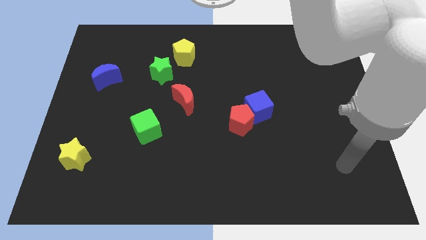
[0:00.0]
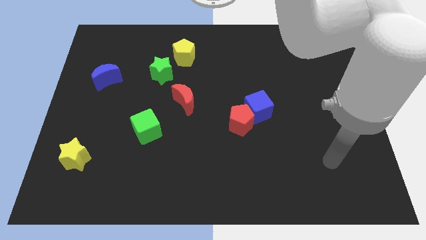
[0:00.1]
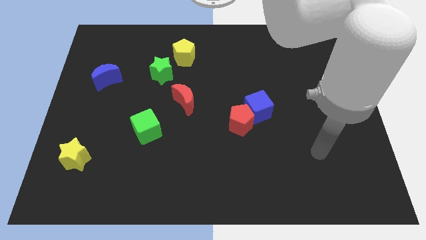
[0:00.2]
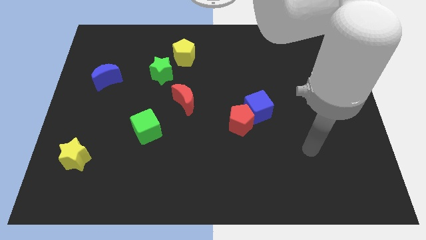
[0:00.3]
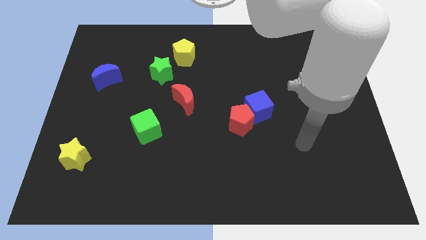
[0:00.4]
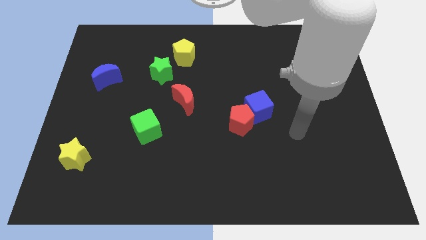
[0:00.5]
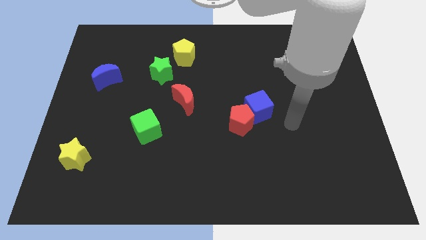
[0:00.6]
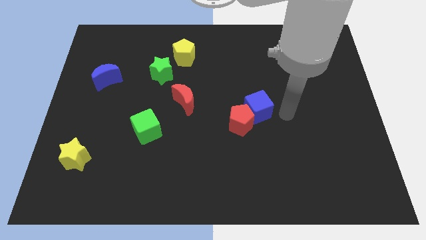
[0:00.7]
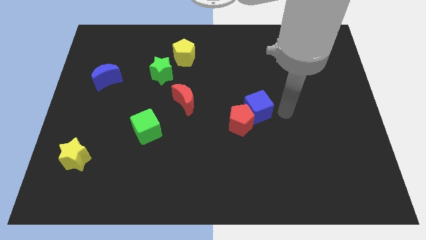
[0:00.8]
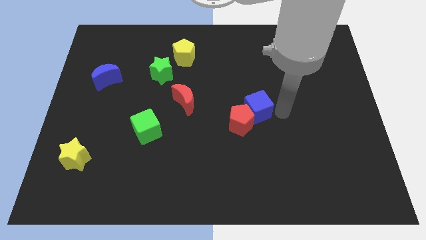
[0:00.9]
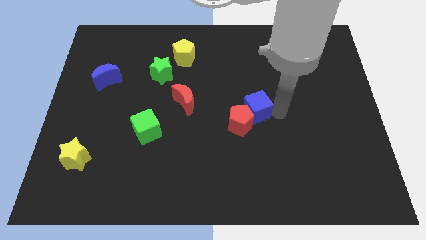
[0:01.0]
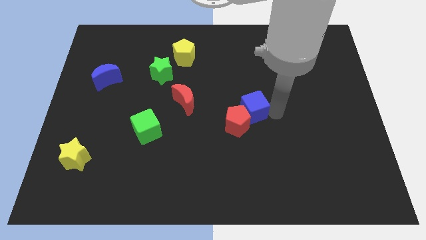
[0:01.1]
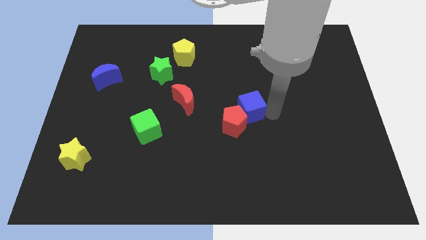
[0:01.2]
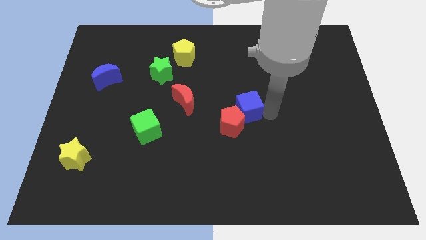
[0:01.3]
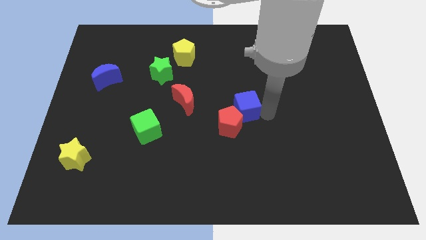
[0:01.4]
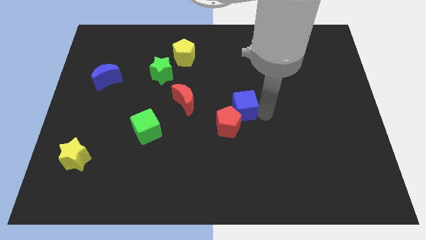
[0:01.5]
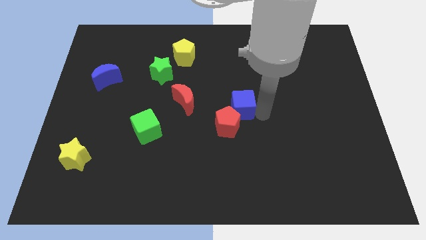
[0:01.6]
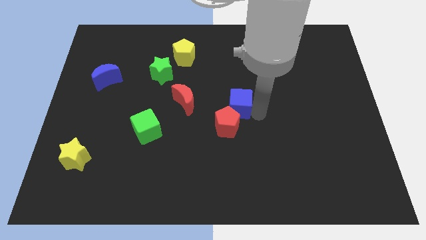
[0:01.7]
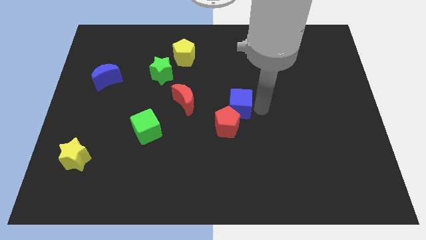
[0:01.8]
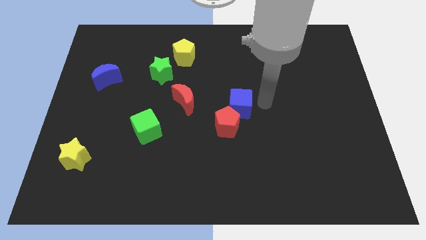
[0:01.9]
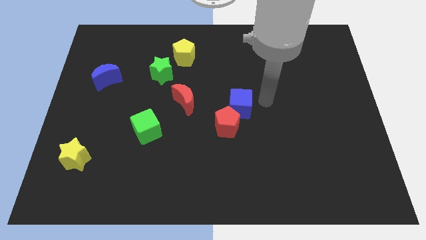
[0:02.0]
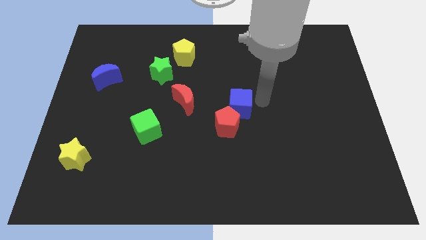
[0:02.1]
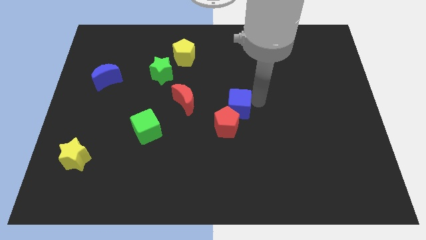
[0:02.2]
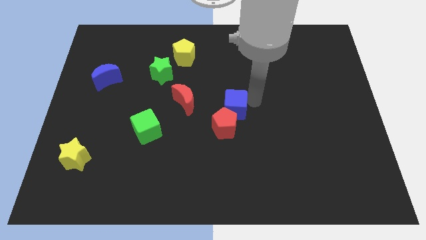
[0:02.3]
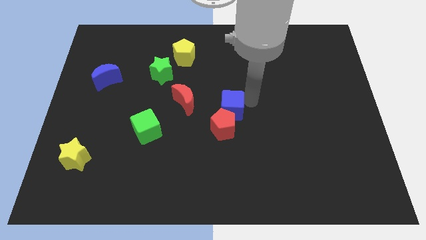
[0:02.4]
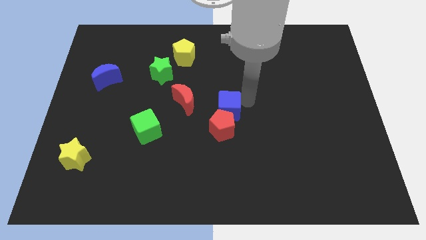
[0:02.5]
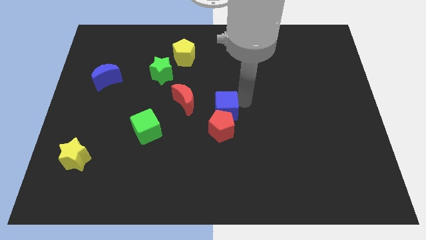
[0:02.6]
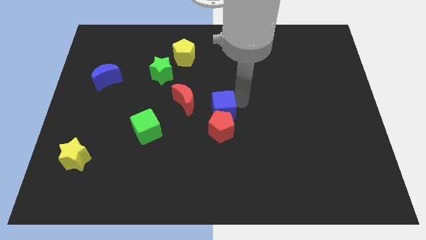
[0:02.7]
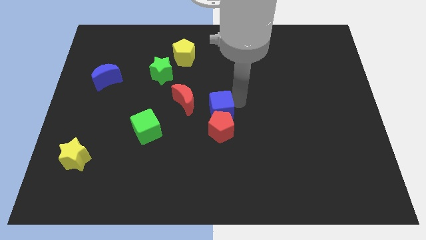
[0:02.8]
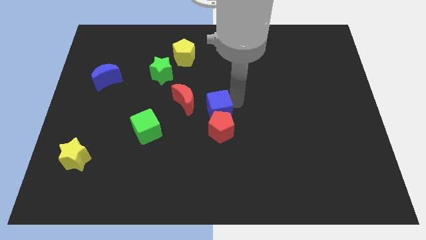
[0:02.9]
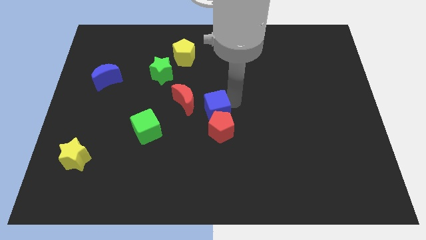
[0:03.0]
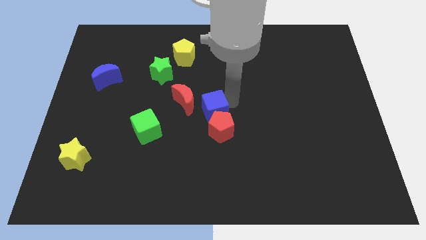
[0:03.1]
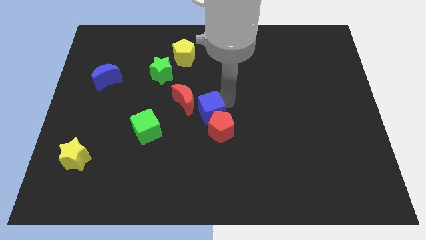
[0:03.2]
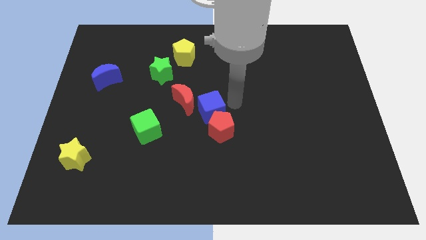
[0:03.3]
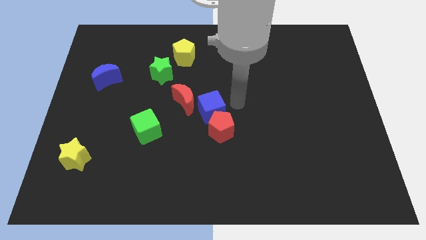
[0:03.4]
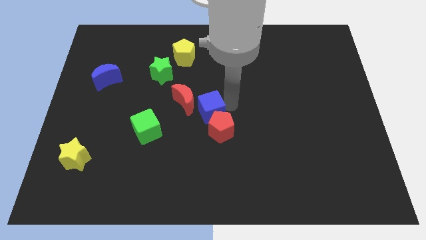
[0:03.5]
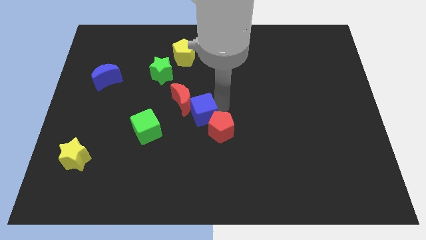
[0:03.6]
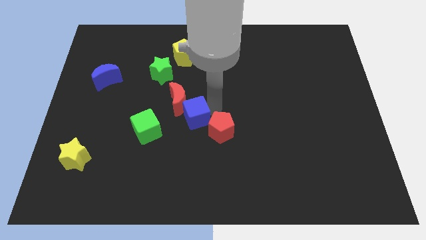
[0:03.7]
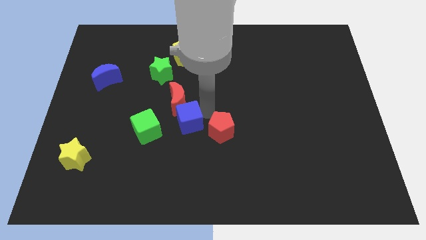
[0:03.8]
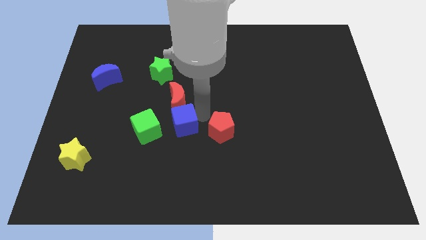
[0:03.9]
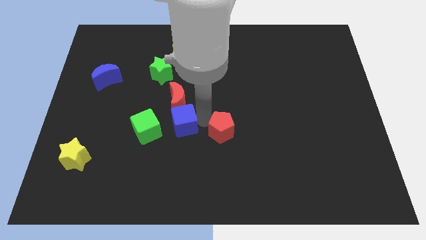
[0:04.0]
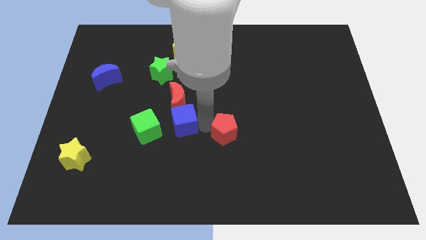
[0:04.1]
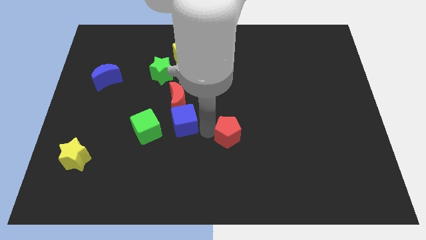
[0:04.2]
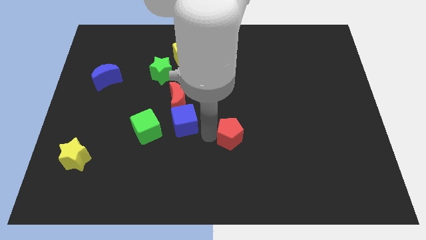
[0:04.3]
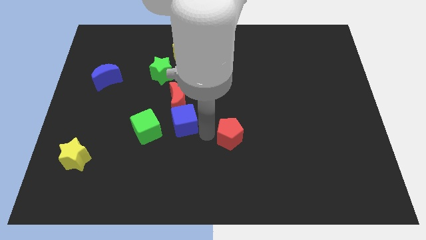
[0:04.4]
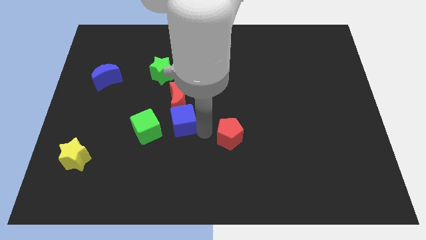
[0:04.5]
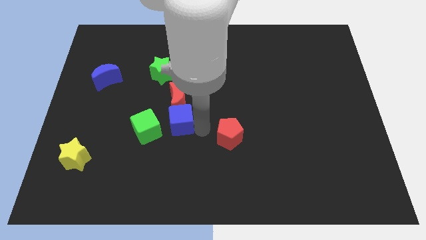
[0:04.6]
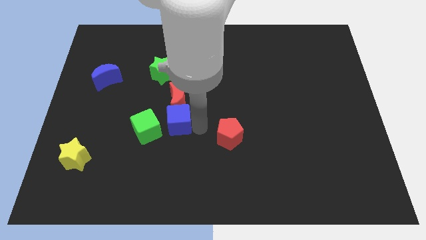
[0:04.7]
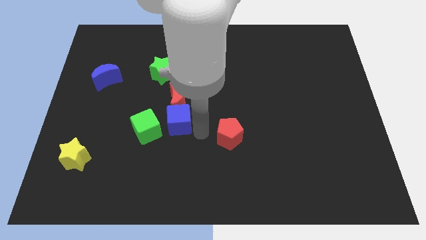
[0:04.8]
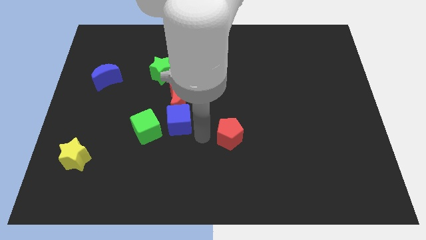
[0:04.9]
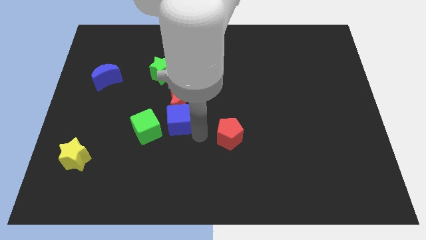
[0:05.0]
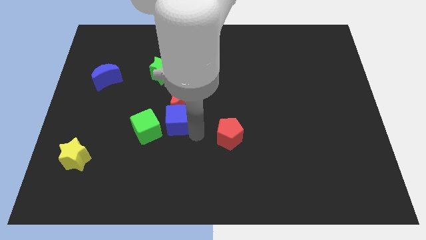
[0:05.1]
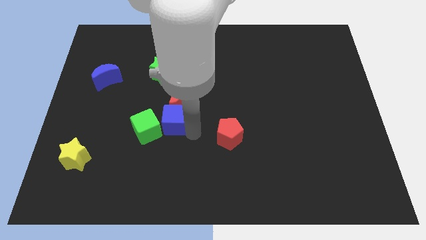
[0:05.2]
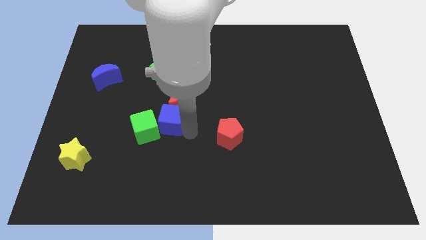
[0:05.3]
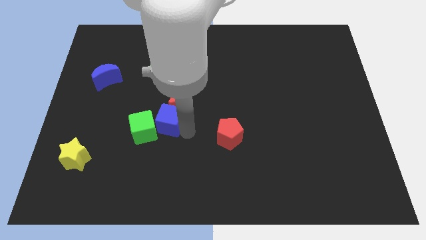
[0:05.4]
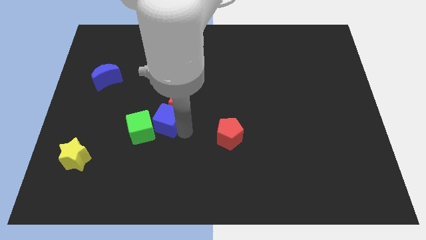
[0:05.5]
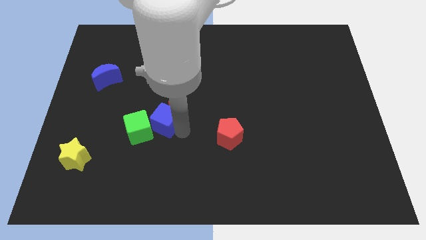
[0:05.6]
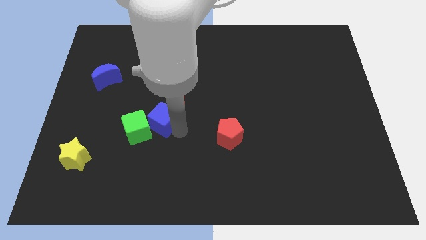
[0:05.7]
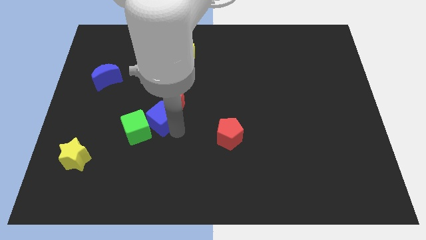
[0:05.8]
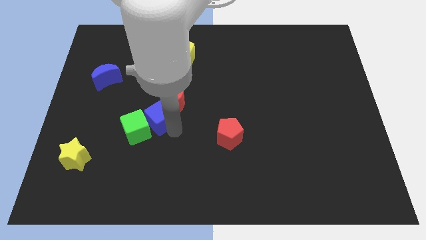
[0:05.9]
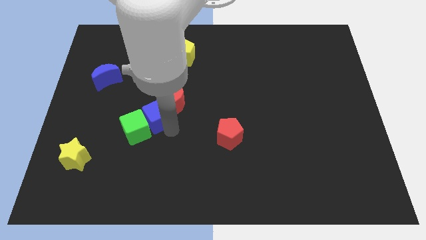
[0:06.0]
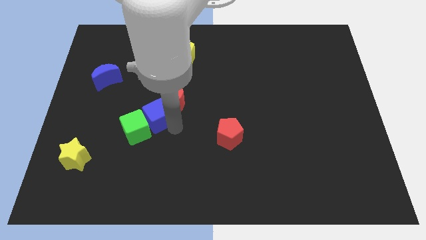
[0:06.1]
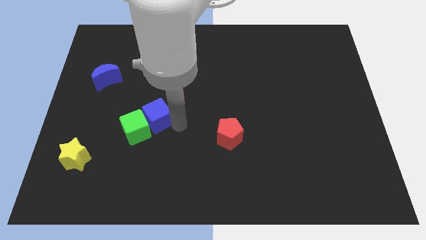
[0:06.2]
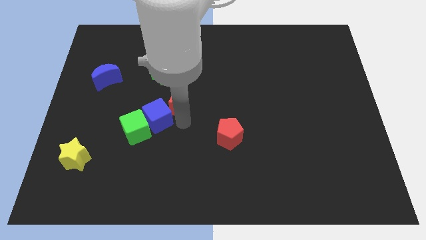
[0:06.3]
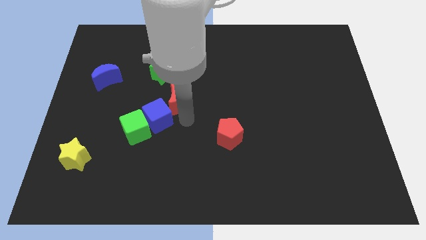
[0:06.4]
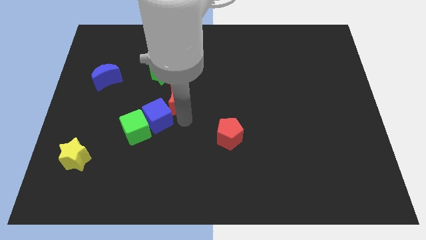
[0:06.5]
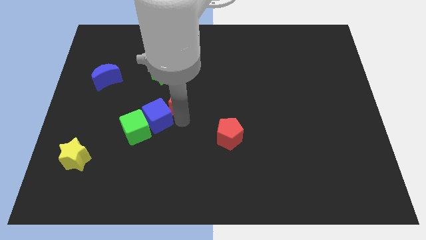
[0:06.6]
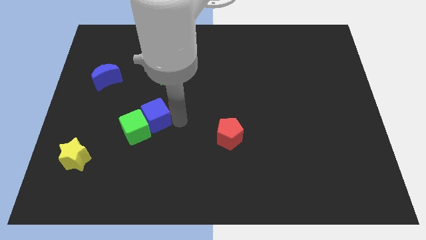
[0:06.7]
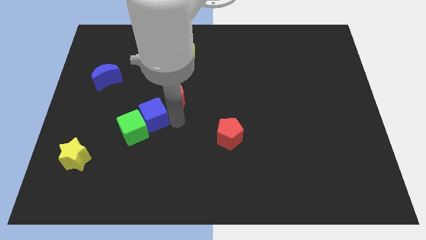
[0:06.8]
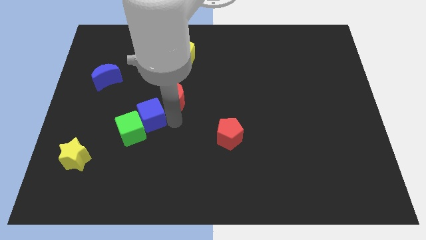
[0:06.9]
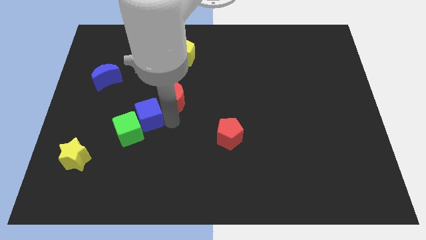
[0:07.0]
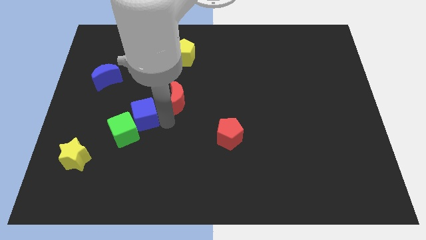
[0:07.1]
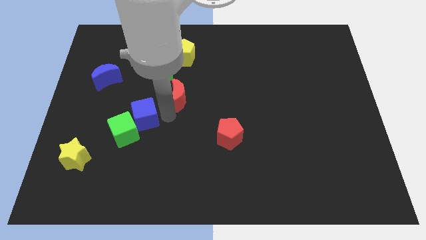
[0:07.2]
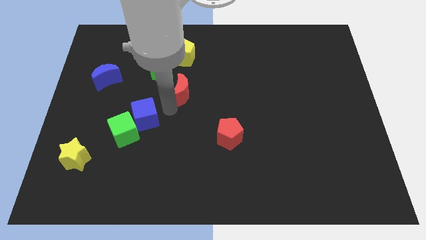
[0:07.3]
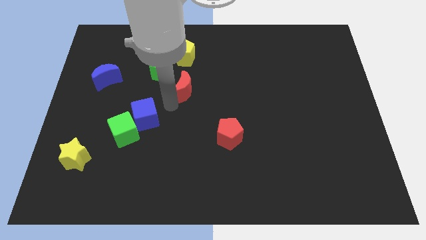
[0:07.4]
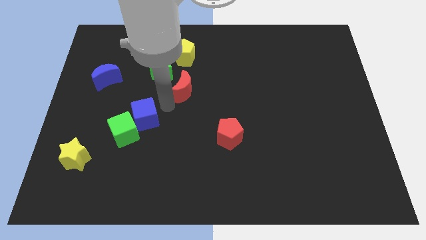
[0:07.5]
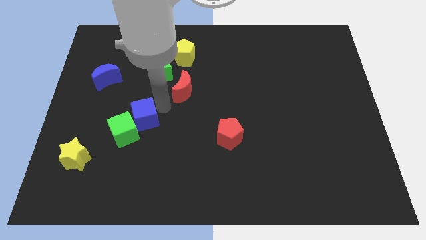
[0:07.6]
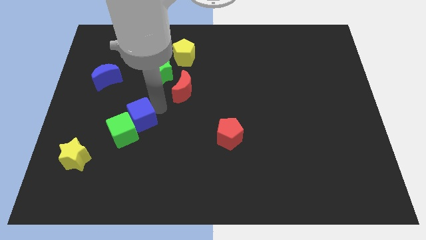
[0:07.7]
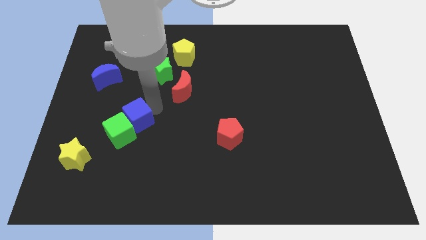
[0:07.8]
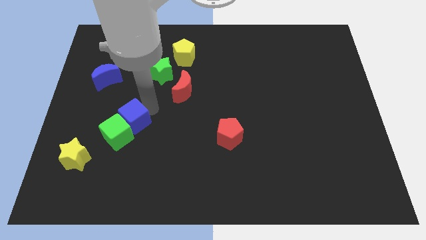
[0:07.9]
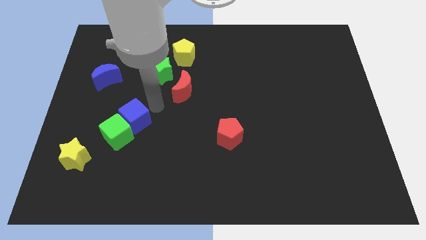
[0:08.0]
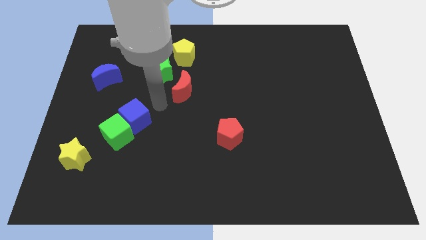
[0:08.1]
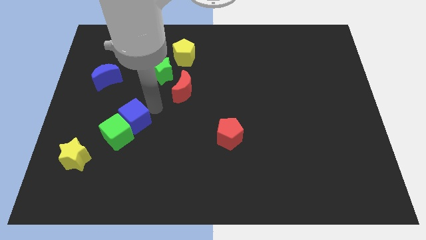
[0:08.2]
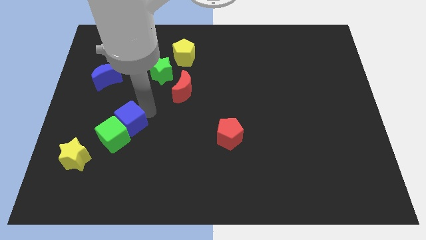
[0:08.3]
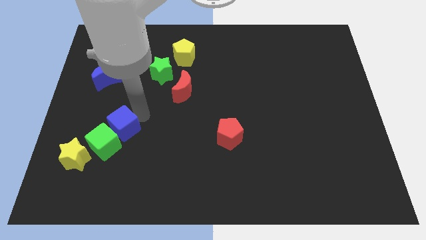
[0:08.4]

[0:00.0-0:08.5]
slide the blue cube diagonally up and to the right of the yellow star
